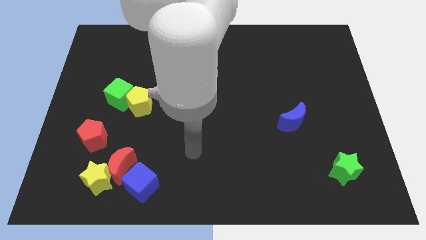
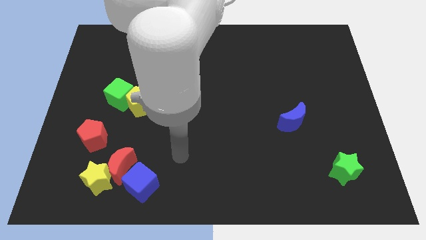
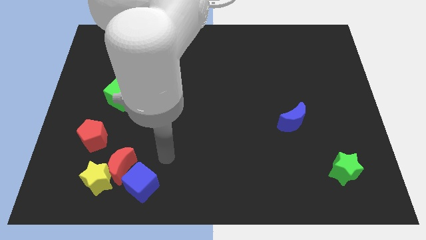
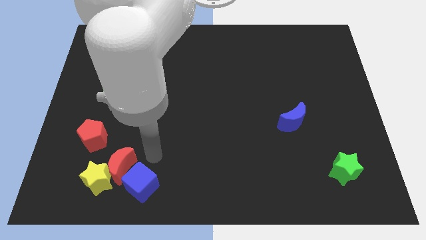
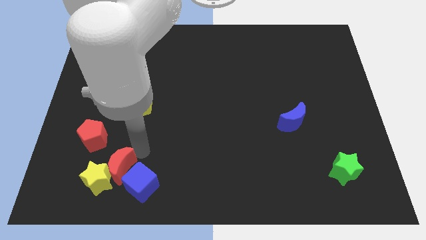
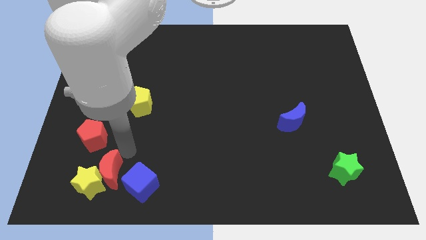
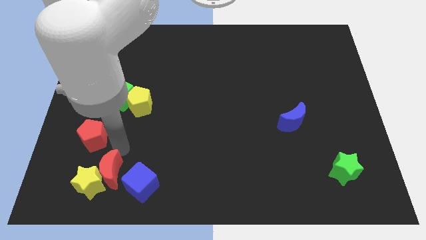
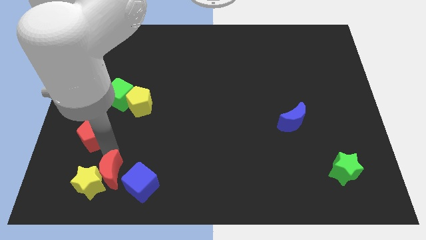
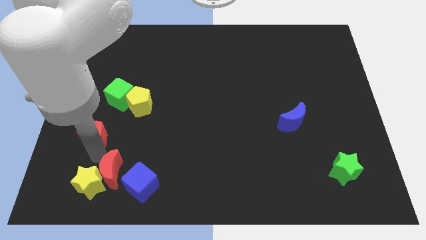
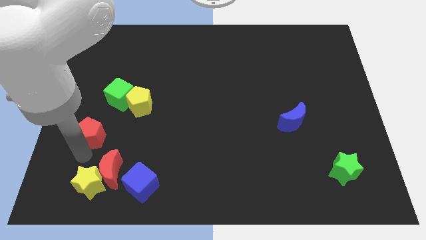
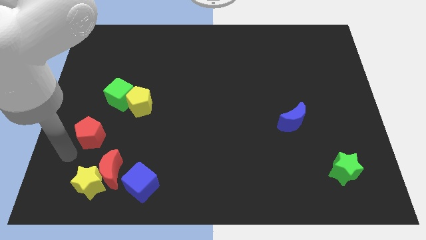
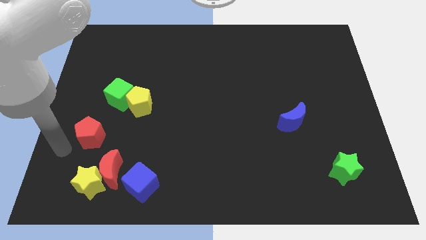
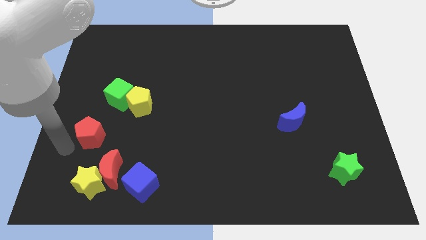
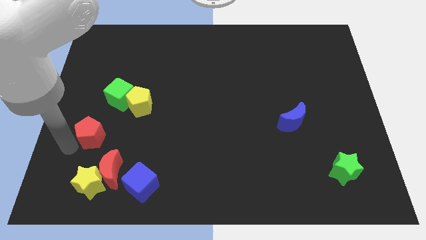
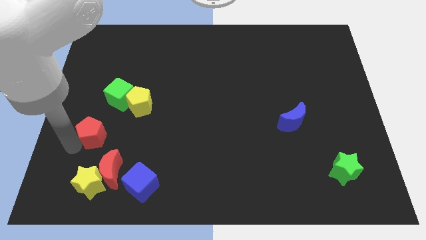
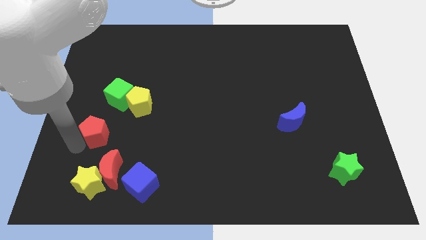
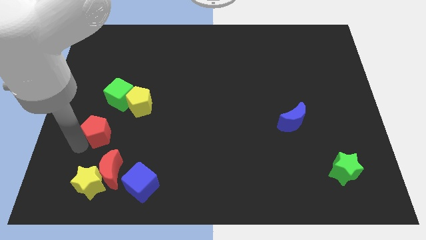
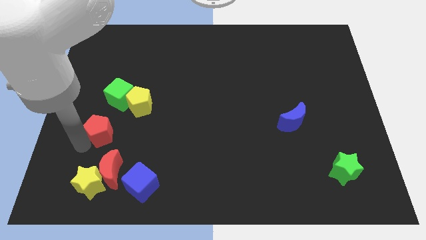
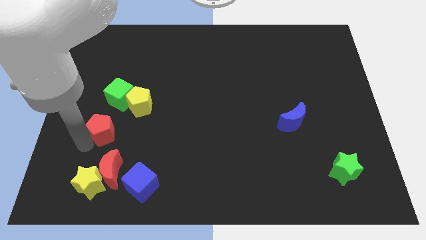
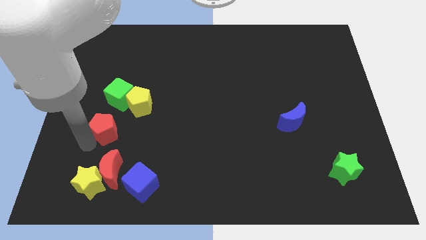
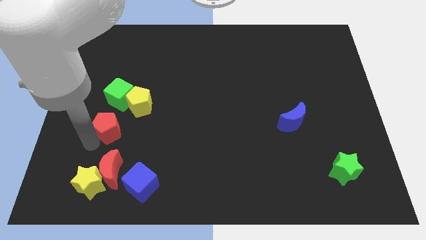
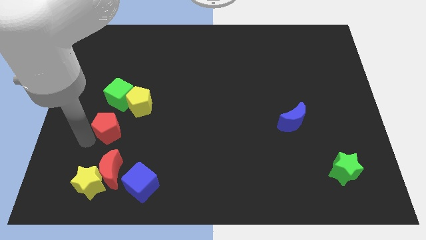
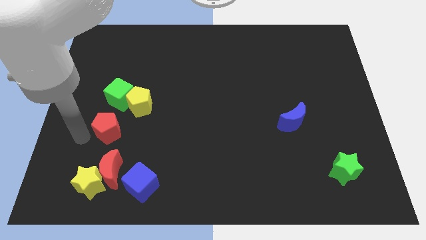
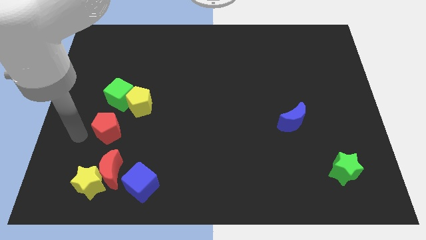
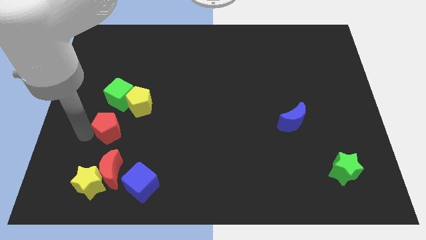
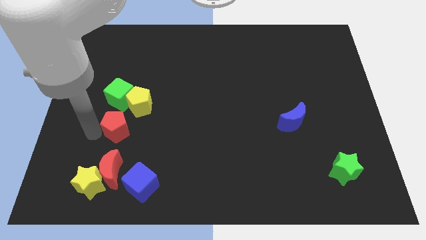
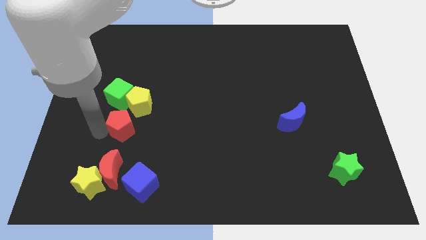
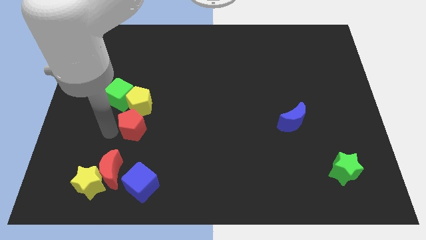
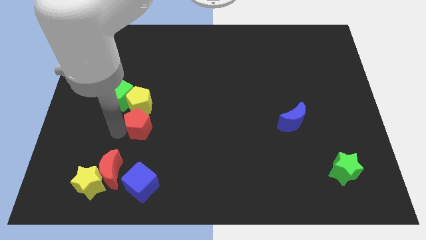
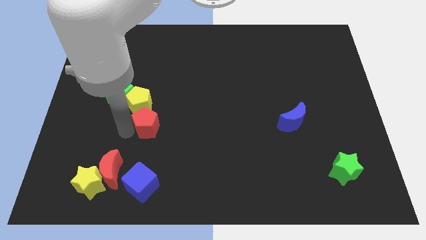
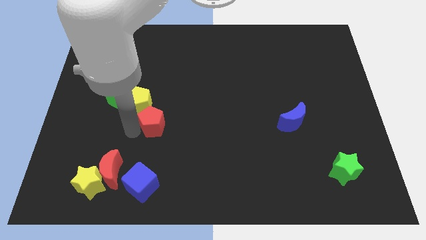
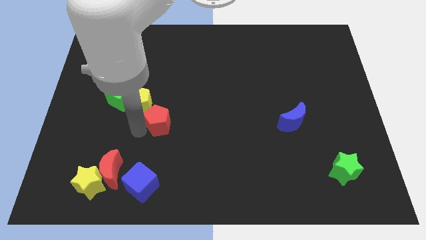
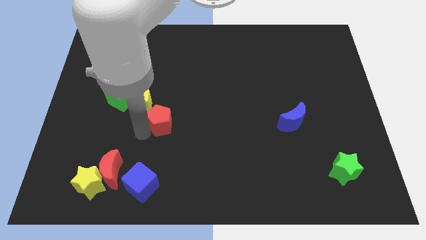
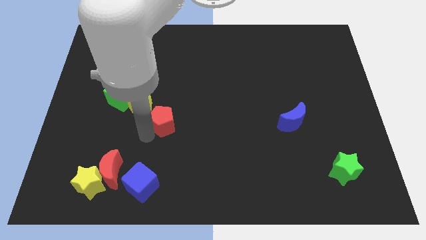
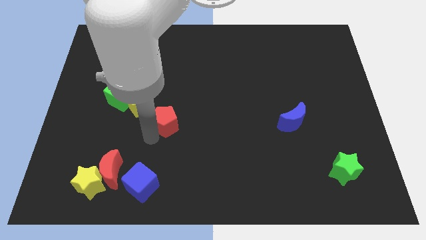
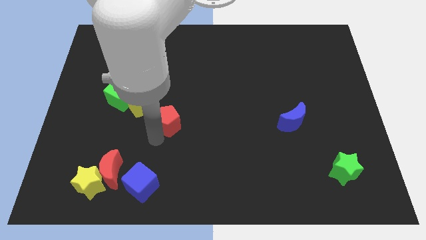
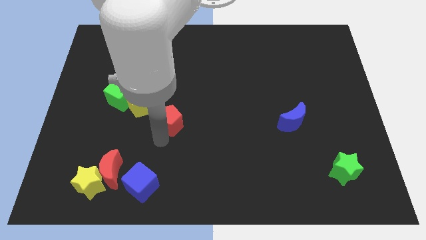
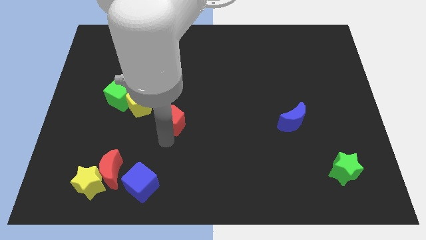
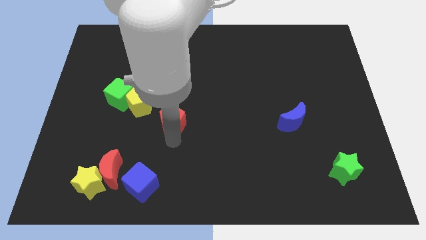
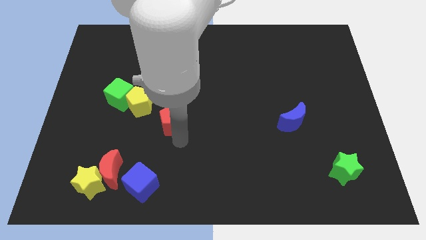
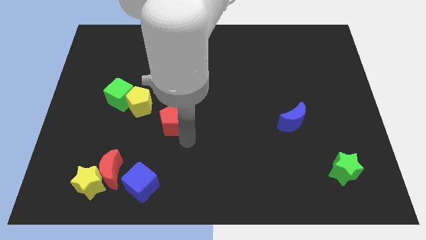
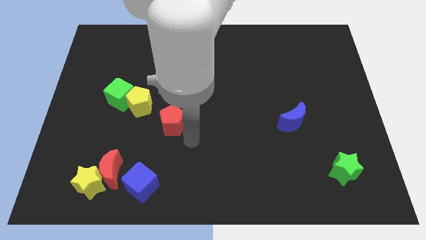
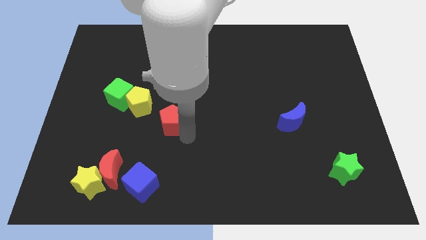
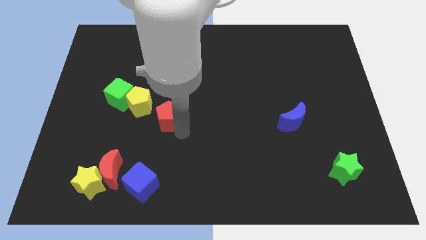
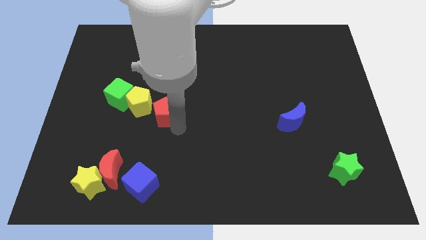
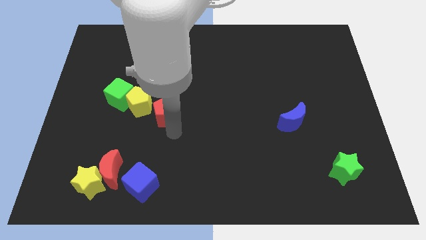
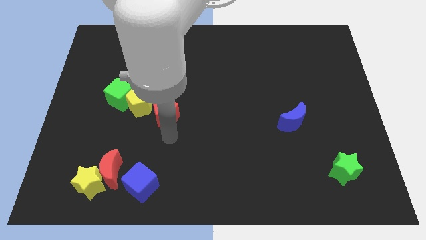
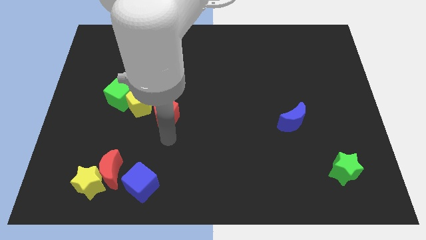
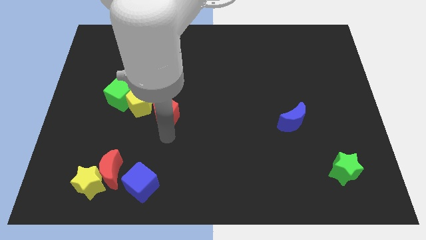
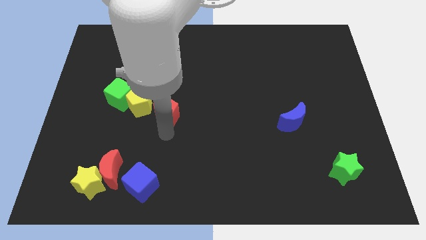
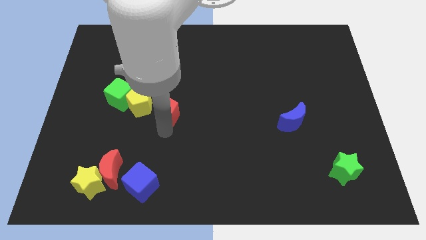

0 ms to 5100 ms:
move the red pentagon just right of the green cube

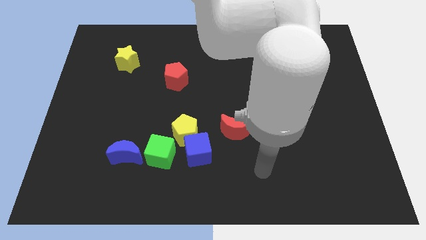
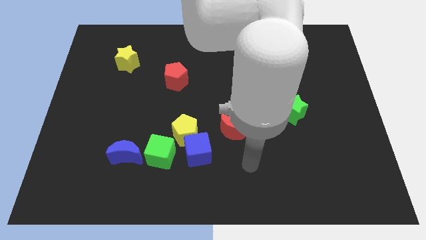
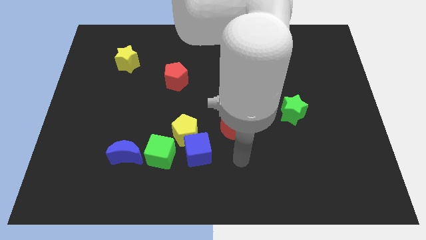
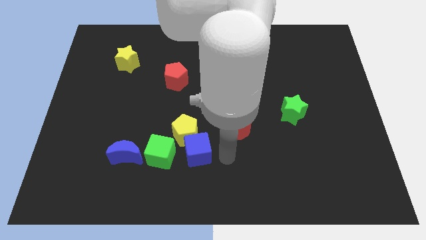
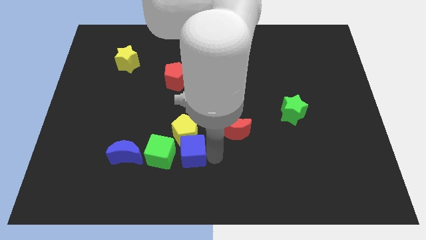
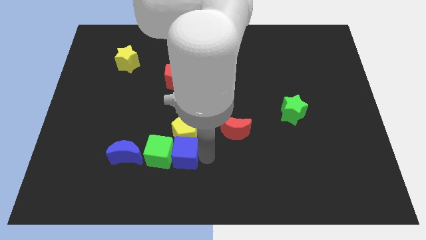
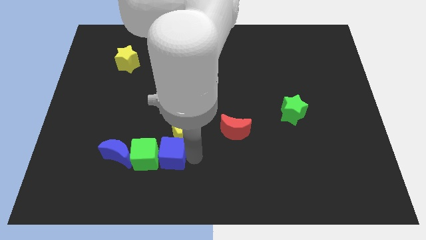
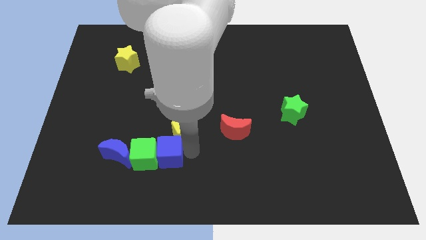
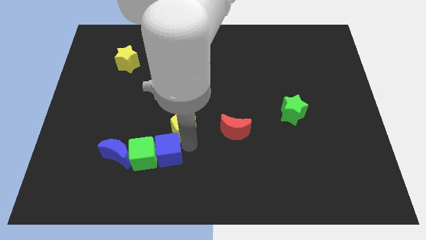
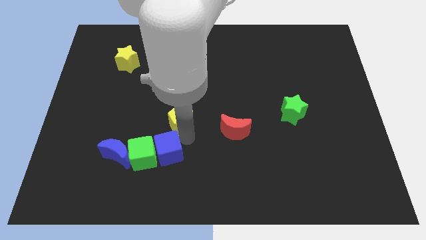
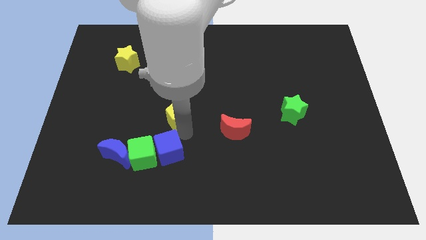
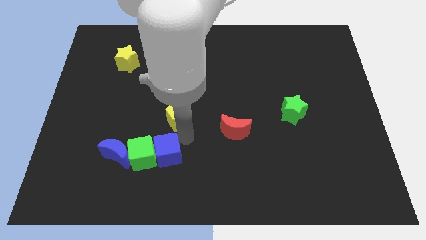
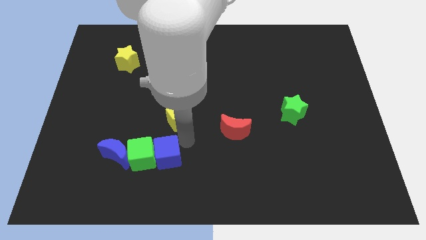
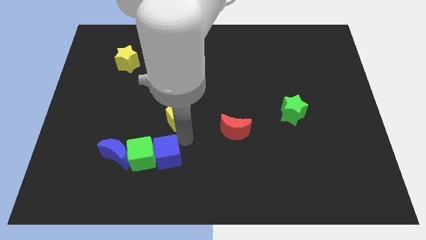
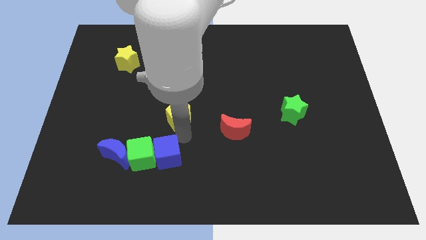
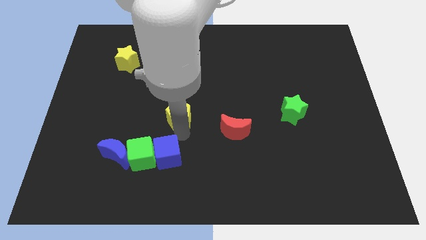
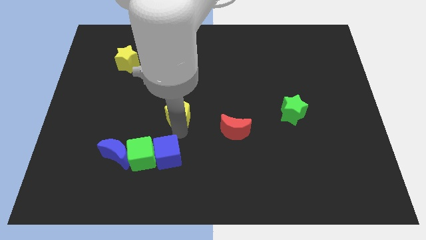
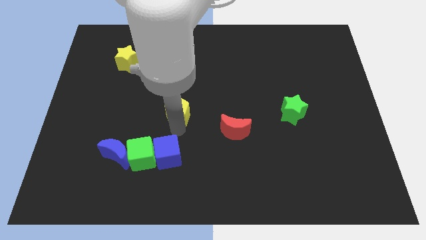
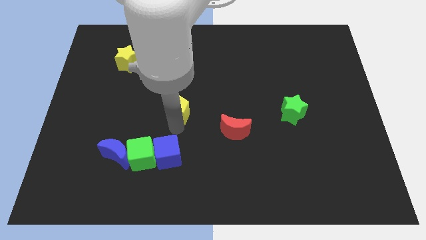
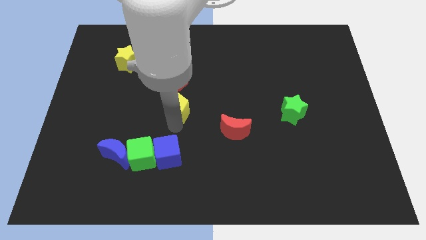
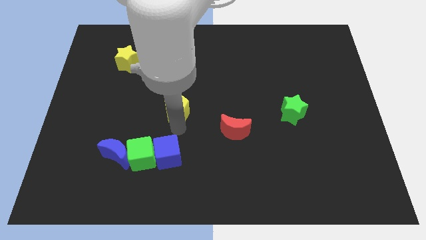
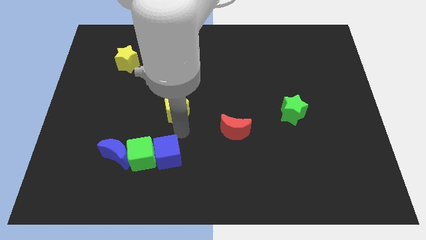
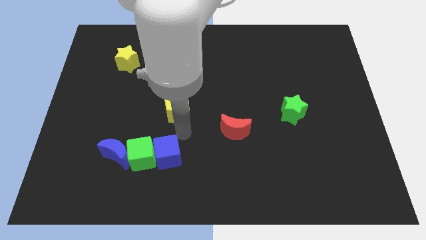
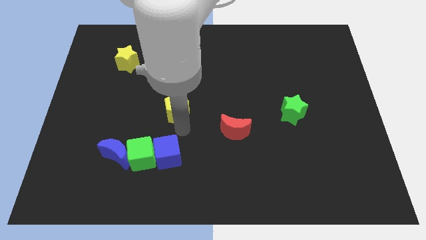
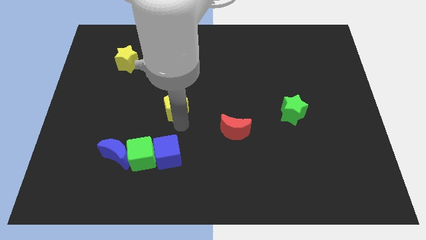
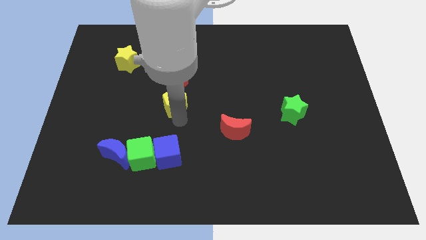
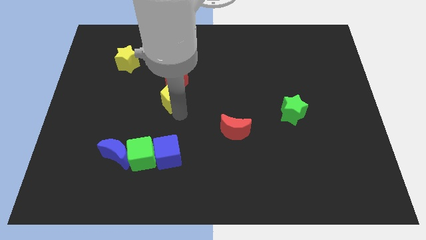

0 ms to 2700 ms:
put the yellow pentagon to the bottom left of the red pentagon
